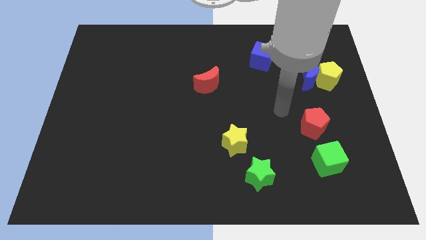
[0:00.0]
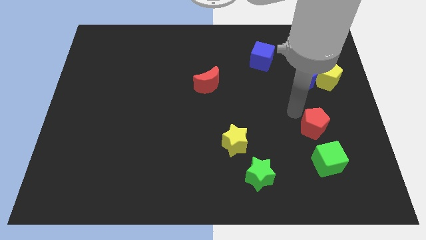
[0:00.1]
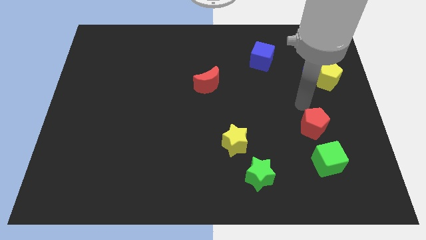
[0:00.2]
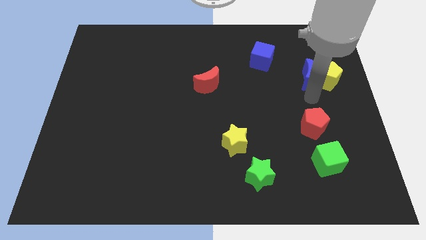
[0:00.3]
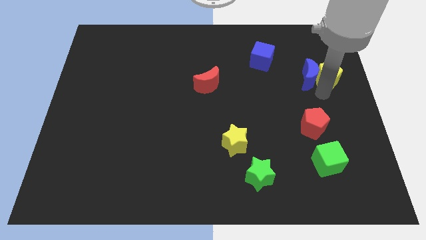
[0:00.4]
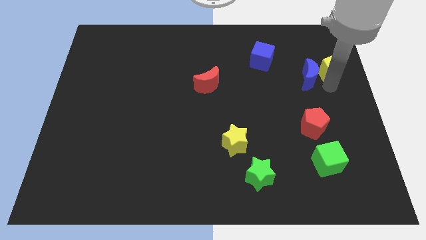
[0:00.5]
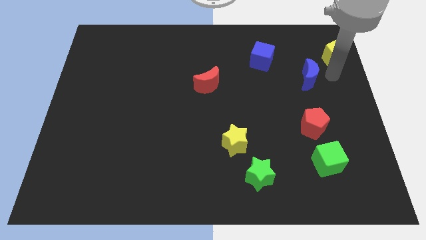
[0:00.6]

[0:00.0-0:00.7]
pull the blue moon apart from the yellow pentagon

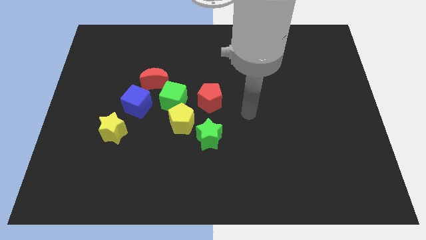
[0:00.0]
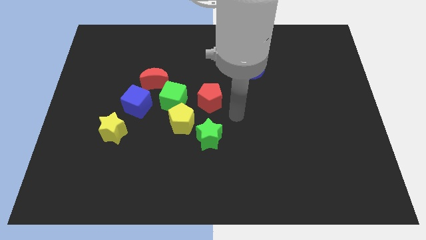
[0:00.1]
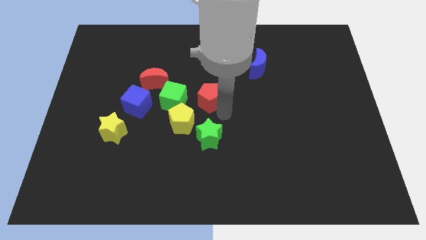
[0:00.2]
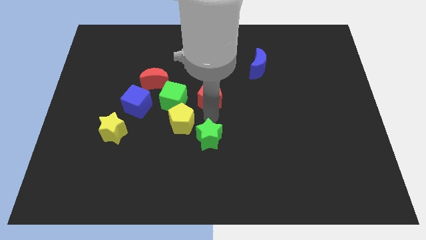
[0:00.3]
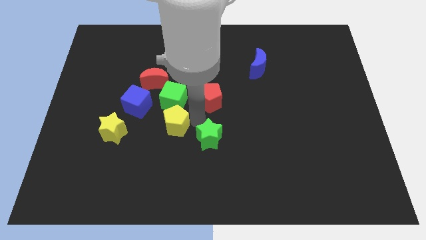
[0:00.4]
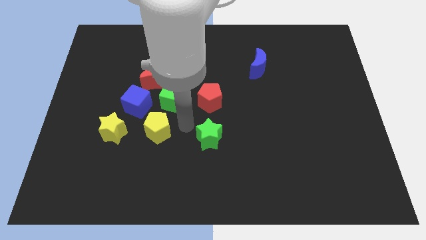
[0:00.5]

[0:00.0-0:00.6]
separate the green star from the yellow pentagon

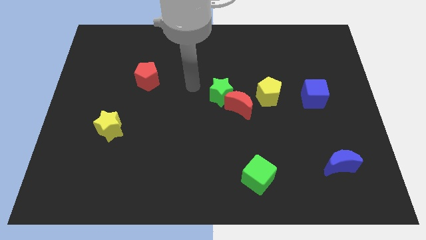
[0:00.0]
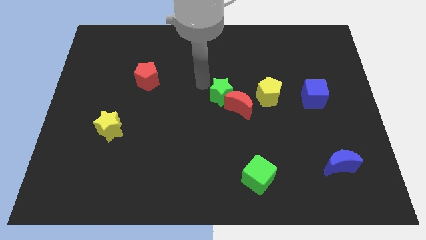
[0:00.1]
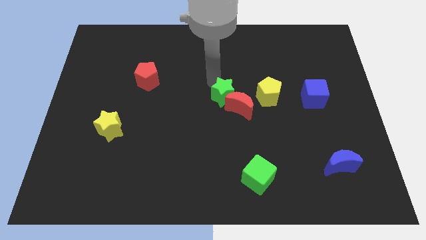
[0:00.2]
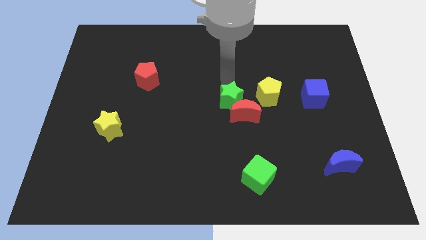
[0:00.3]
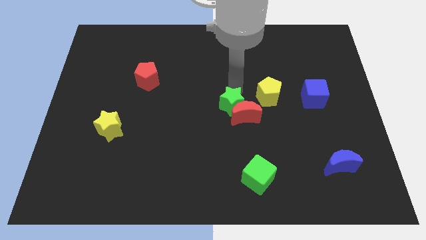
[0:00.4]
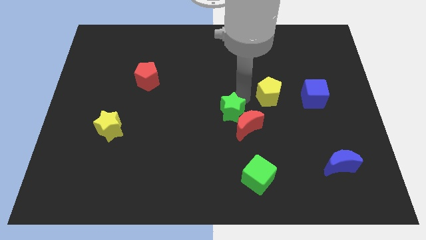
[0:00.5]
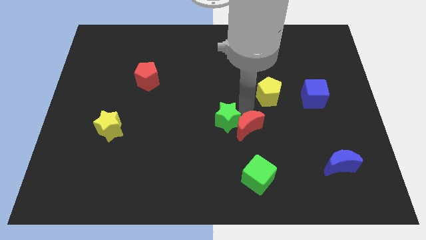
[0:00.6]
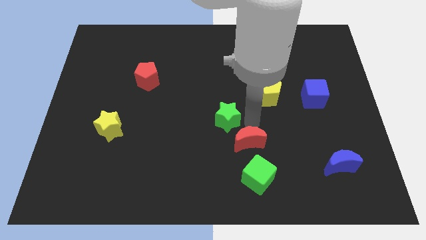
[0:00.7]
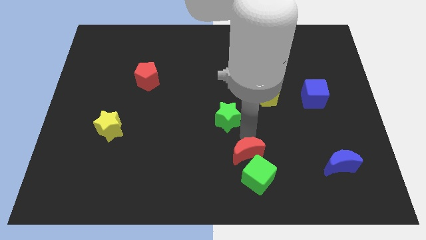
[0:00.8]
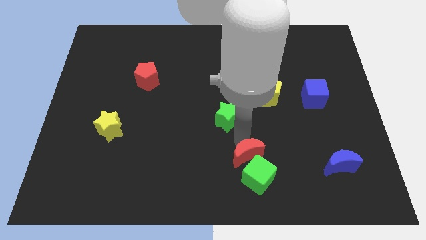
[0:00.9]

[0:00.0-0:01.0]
move the green star away from the red moon

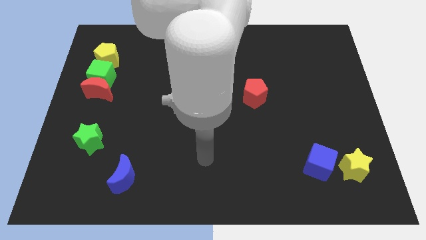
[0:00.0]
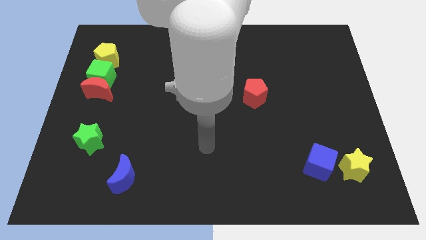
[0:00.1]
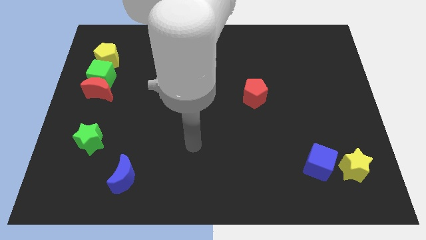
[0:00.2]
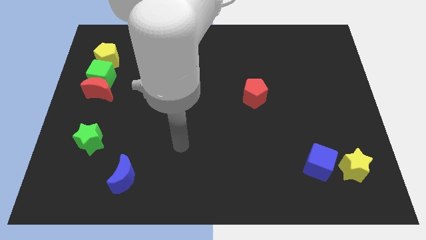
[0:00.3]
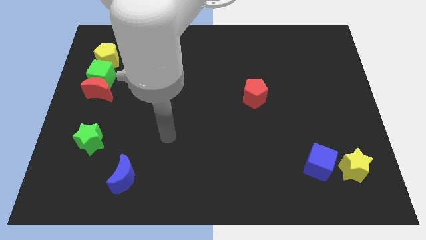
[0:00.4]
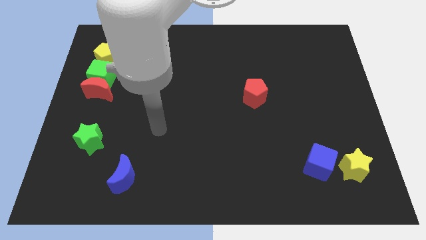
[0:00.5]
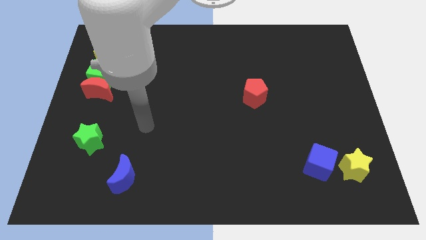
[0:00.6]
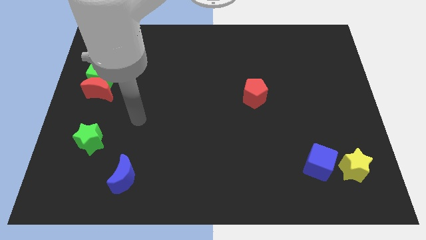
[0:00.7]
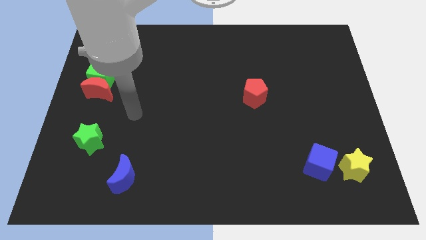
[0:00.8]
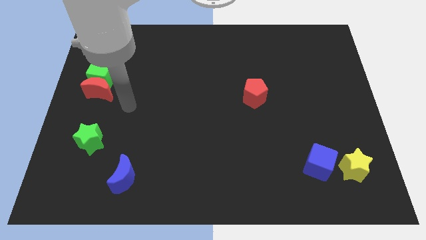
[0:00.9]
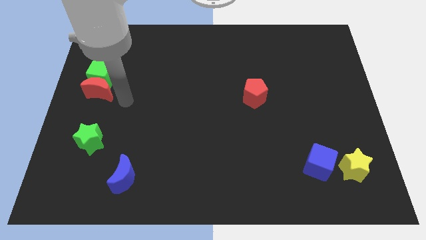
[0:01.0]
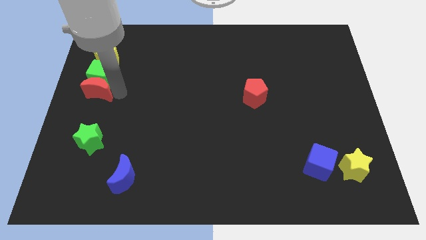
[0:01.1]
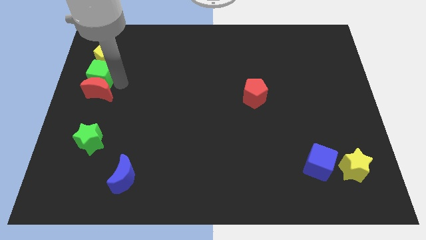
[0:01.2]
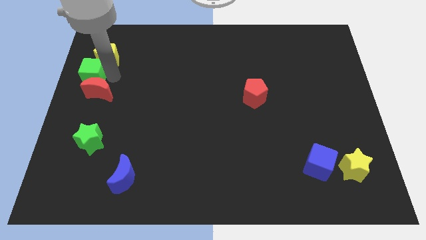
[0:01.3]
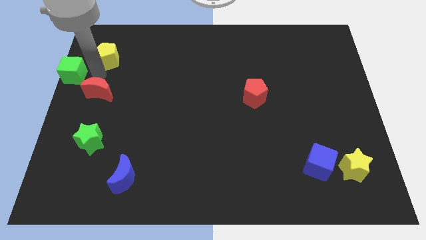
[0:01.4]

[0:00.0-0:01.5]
move the red moon away from the green cube

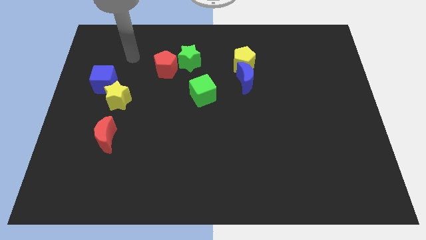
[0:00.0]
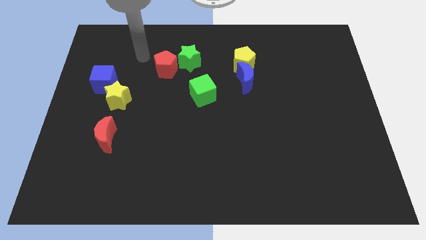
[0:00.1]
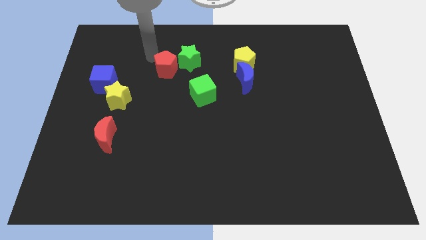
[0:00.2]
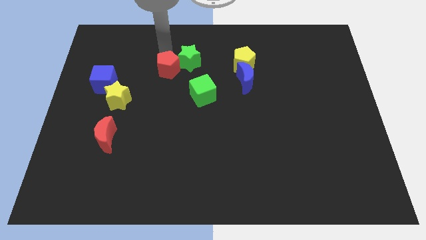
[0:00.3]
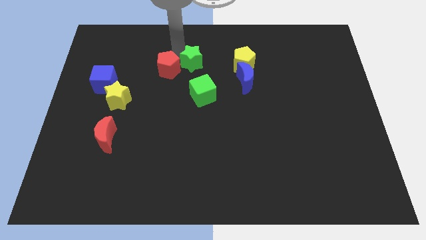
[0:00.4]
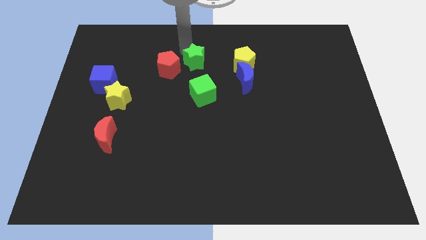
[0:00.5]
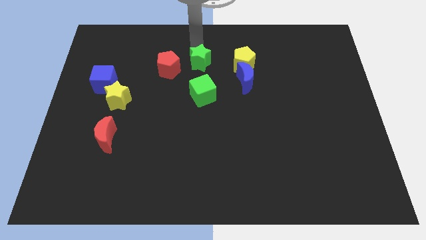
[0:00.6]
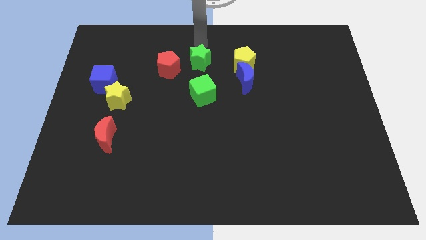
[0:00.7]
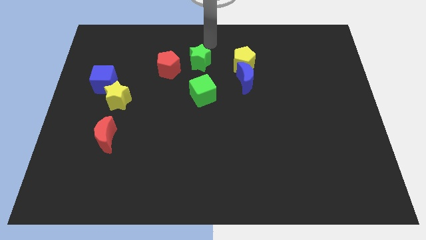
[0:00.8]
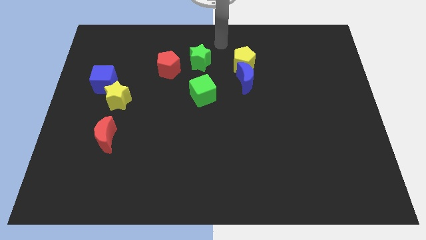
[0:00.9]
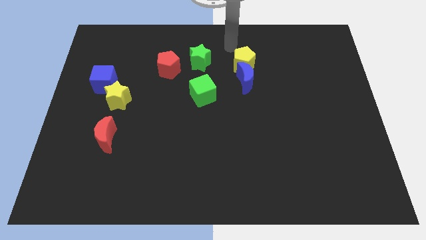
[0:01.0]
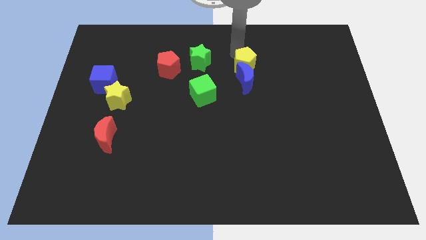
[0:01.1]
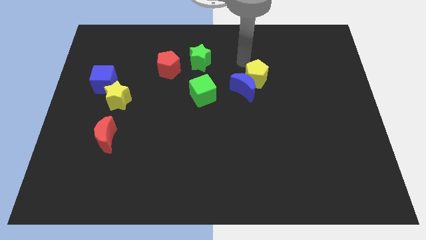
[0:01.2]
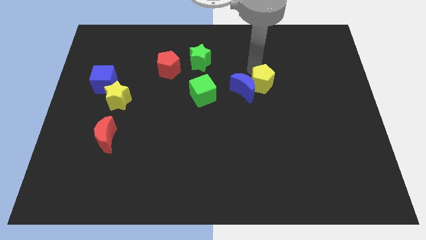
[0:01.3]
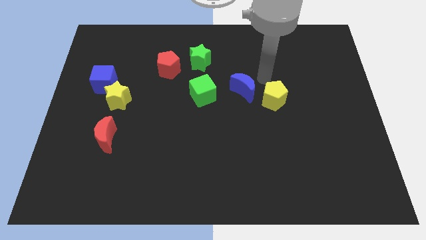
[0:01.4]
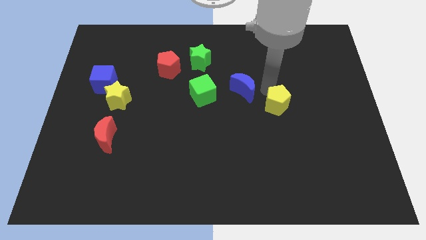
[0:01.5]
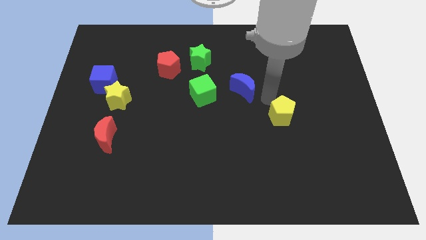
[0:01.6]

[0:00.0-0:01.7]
move the blue moon away from the yellow pentagon

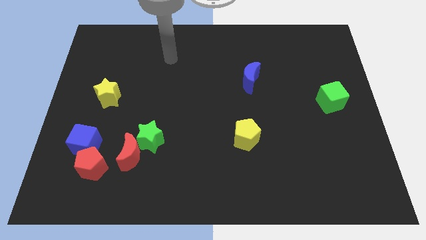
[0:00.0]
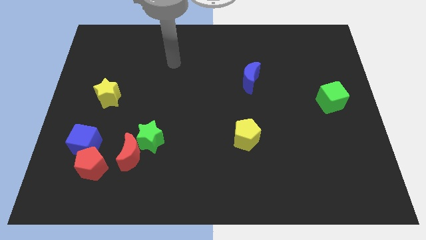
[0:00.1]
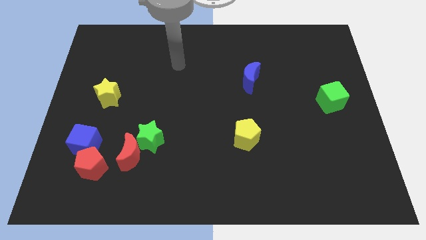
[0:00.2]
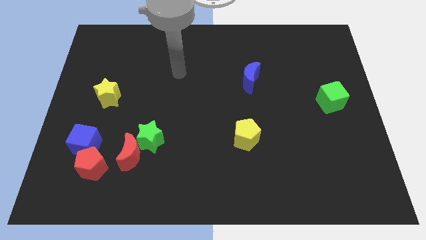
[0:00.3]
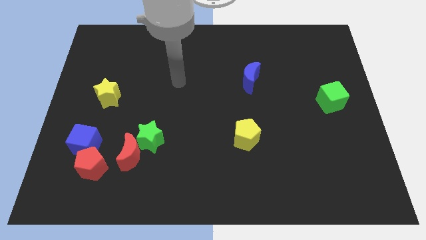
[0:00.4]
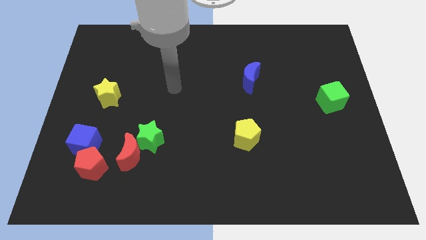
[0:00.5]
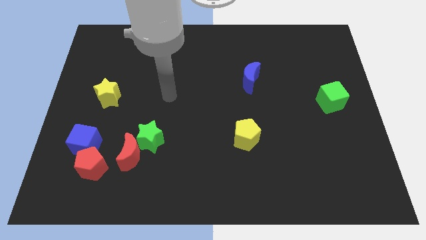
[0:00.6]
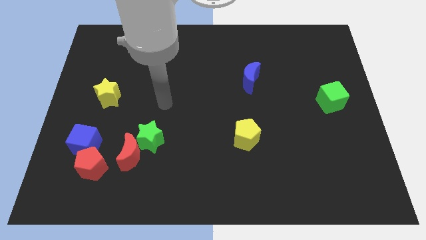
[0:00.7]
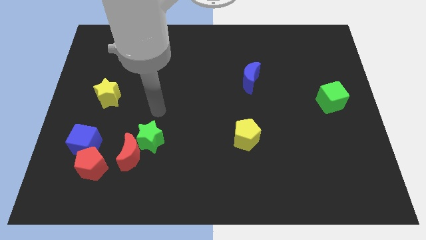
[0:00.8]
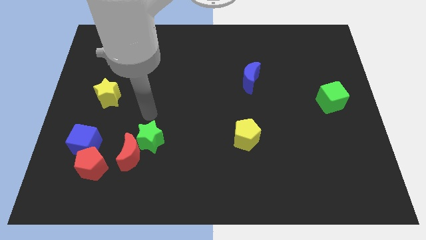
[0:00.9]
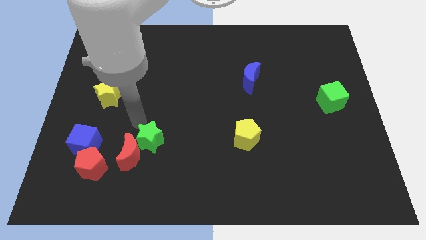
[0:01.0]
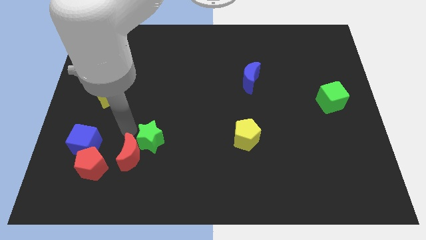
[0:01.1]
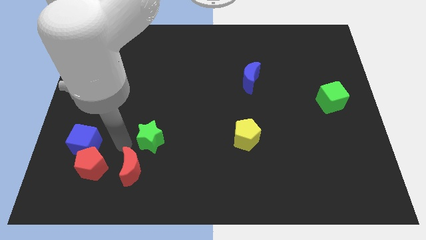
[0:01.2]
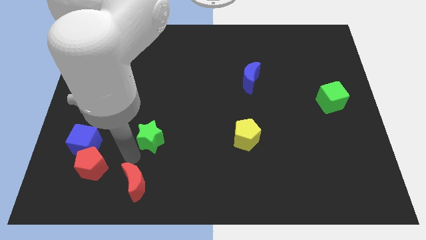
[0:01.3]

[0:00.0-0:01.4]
separate the green star from the red moon

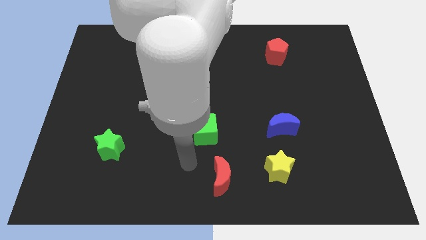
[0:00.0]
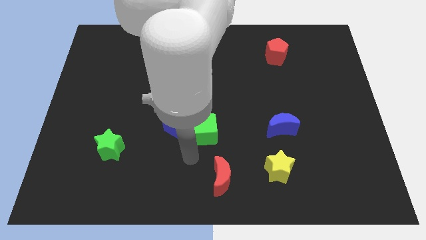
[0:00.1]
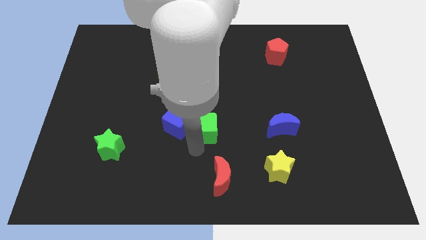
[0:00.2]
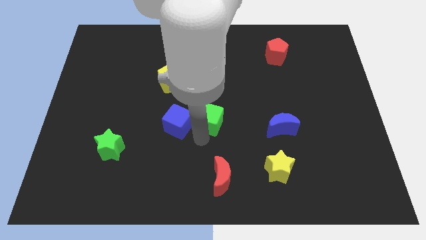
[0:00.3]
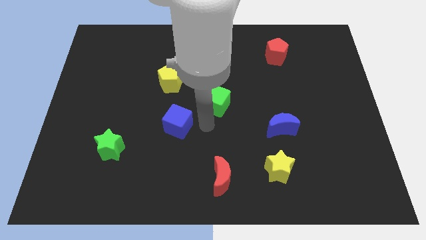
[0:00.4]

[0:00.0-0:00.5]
separate the blue cube from the green cube

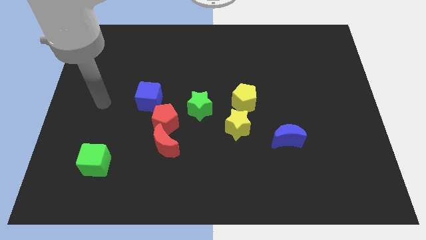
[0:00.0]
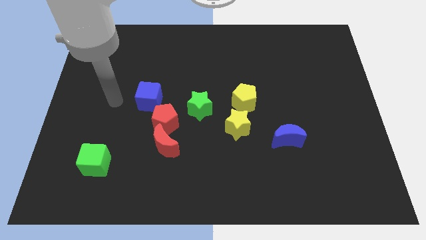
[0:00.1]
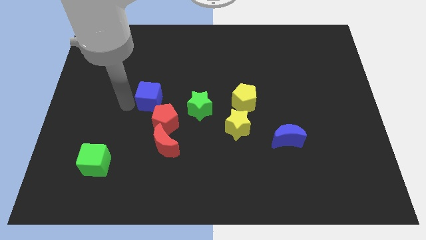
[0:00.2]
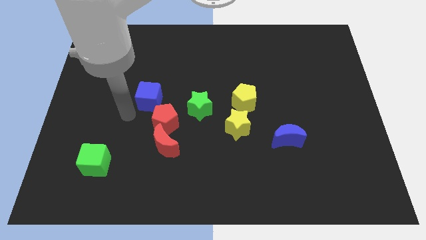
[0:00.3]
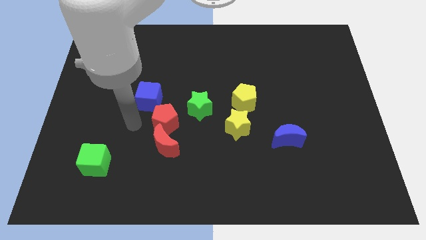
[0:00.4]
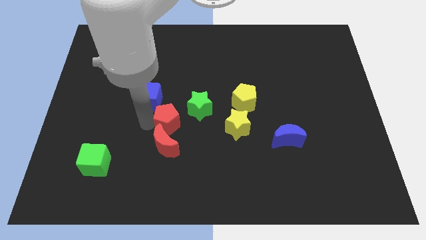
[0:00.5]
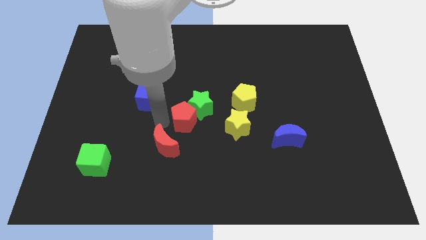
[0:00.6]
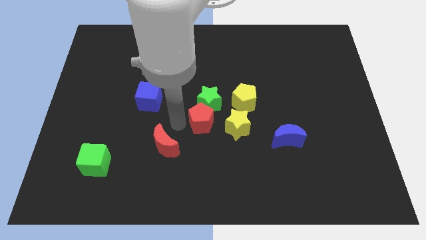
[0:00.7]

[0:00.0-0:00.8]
separate the red moon from the red pentagon

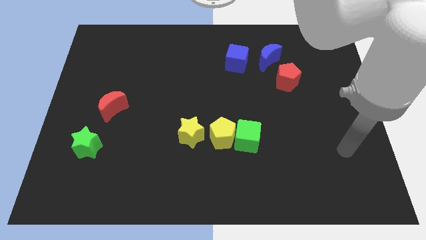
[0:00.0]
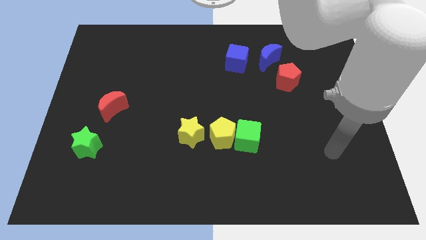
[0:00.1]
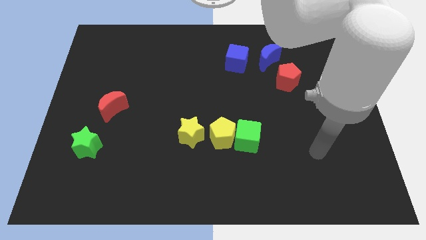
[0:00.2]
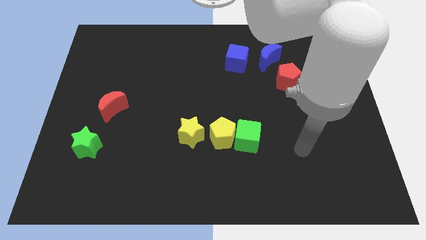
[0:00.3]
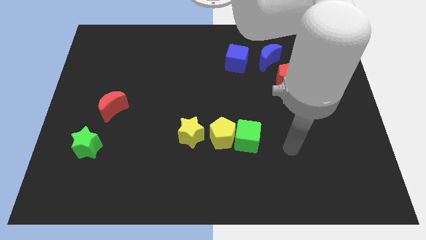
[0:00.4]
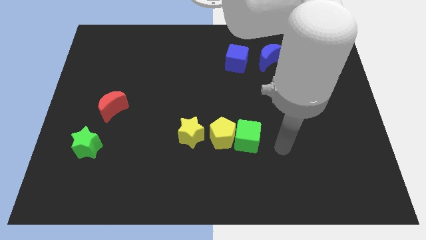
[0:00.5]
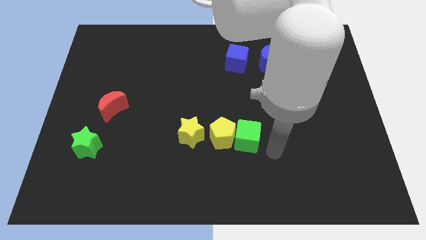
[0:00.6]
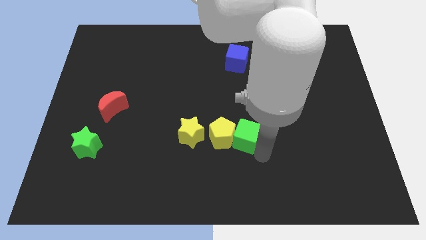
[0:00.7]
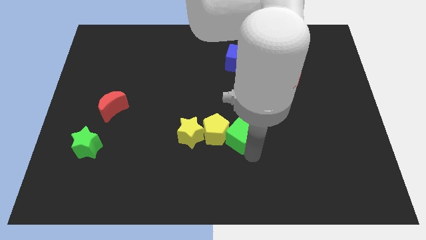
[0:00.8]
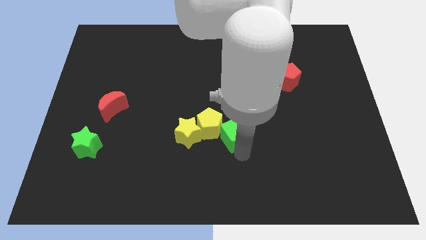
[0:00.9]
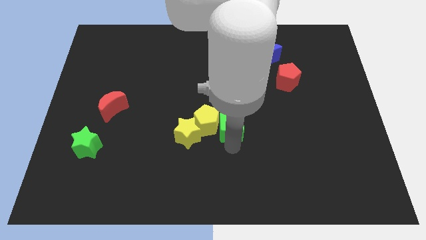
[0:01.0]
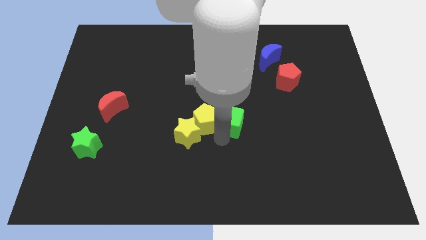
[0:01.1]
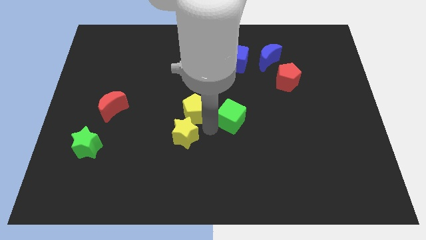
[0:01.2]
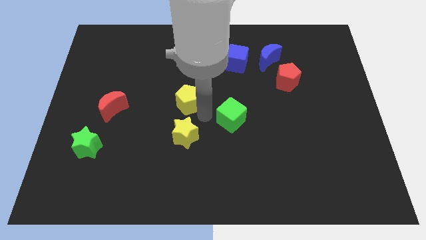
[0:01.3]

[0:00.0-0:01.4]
pull the green cube apart from the yellow pentagon
